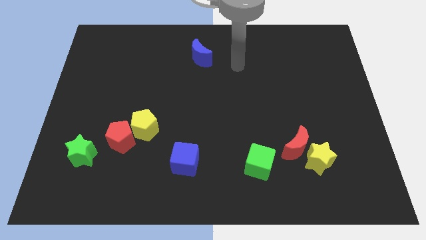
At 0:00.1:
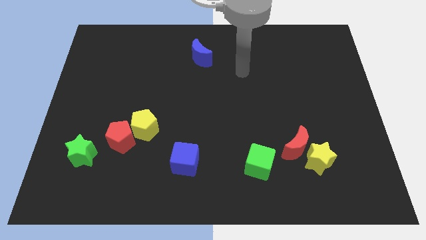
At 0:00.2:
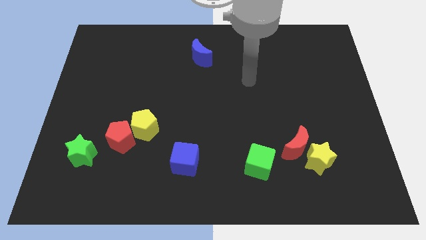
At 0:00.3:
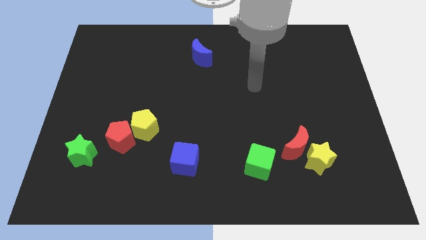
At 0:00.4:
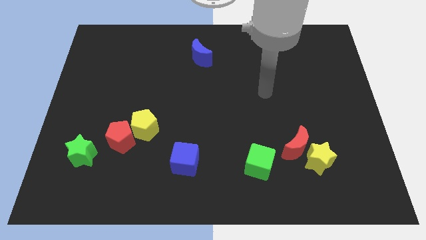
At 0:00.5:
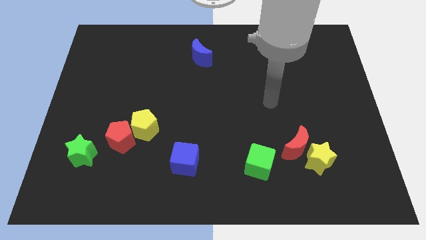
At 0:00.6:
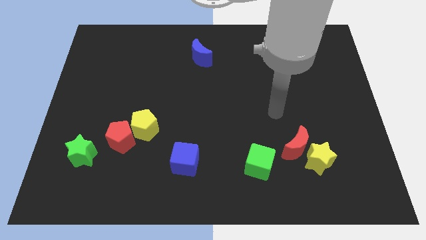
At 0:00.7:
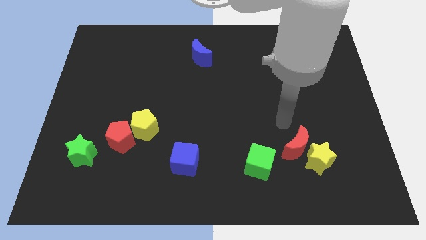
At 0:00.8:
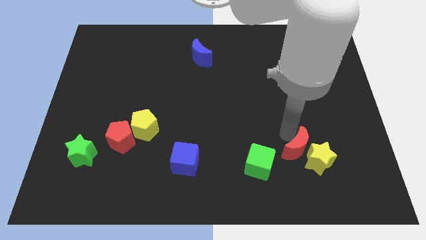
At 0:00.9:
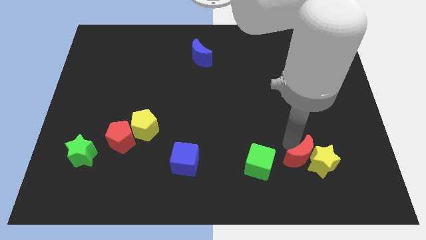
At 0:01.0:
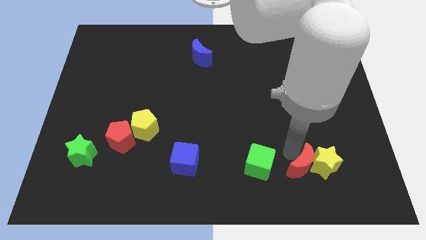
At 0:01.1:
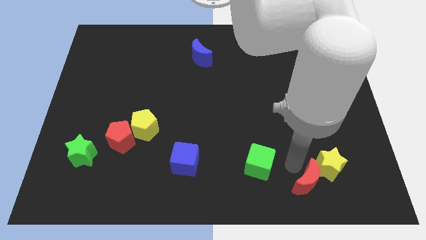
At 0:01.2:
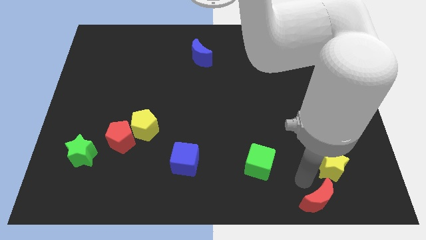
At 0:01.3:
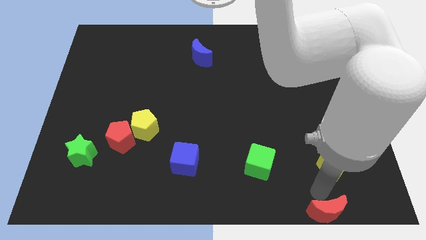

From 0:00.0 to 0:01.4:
separate the yellow star from the red moon

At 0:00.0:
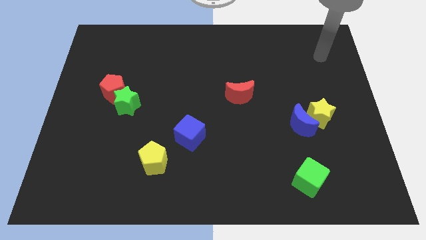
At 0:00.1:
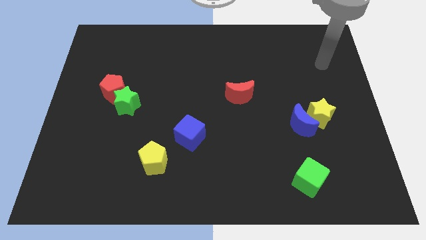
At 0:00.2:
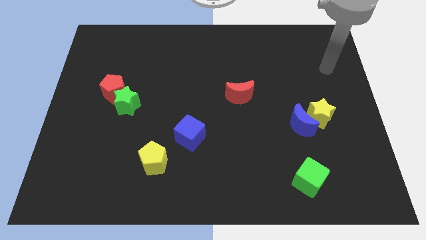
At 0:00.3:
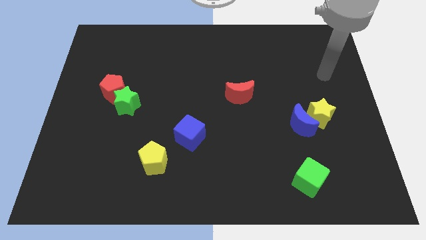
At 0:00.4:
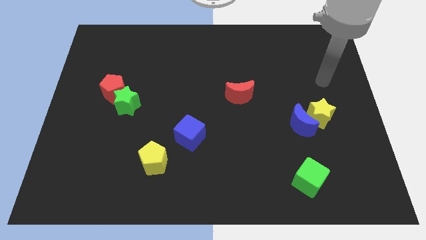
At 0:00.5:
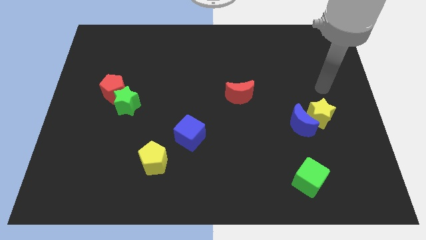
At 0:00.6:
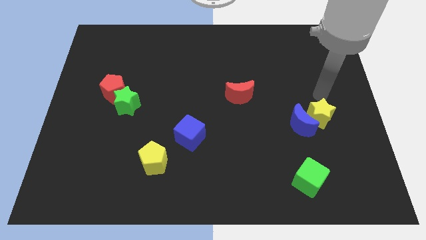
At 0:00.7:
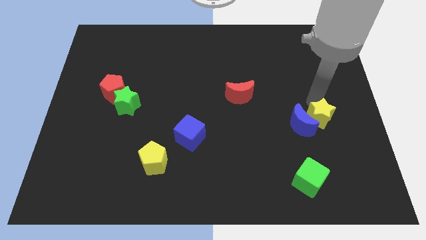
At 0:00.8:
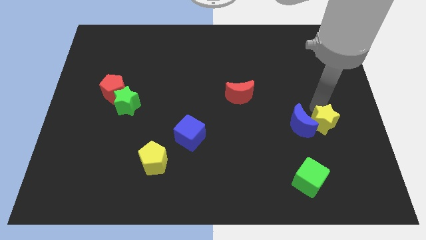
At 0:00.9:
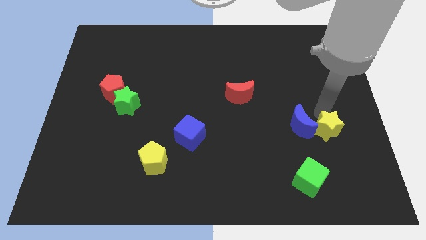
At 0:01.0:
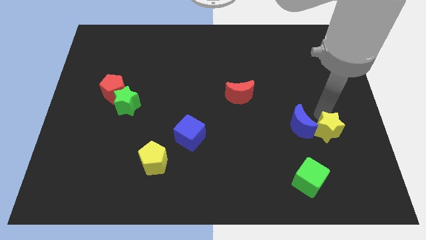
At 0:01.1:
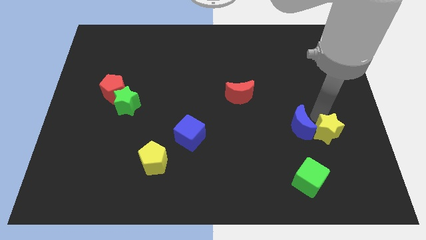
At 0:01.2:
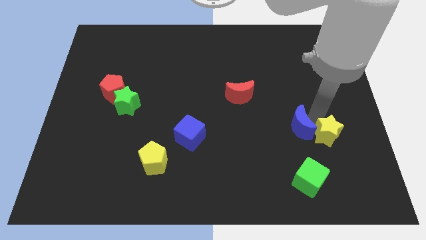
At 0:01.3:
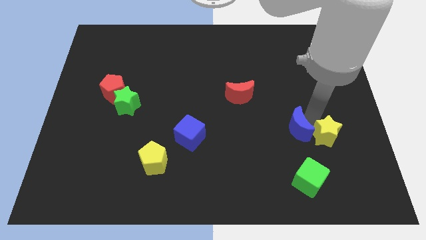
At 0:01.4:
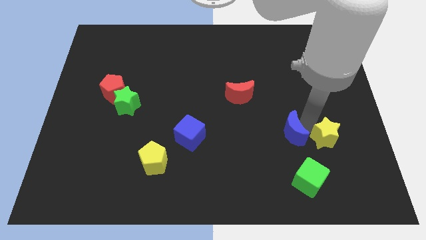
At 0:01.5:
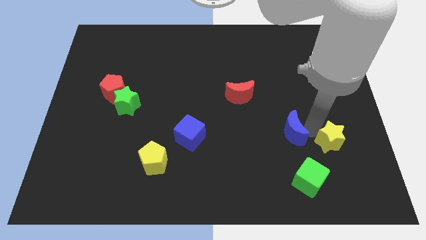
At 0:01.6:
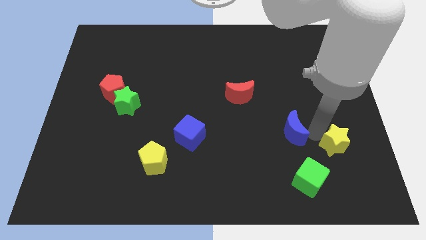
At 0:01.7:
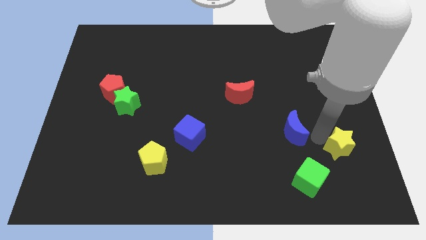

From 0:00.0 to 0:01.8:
separate the blue moon from the yellow star

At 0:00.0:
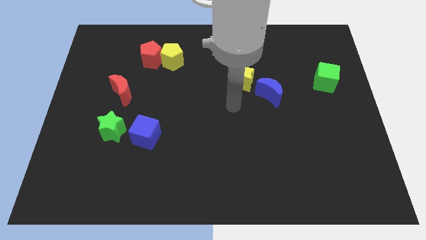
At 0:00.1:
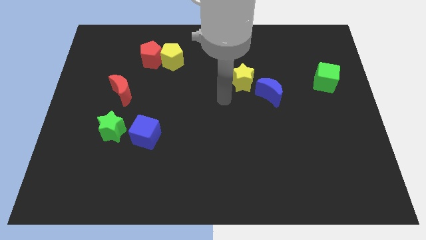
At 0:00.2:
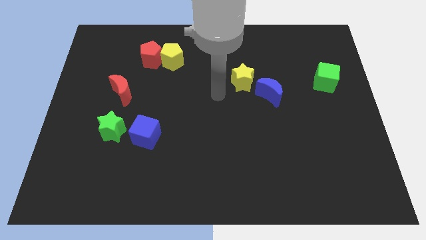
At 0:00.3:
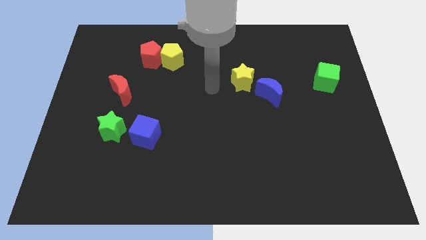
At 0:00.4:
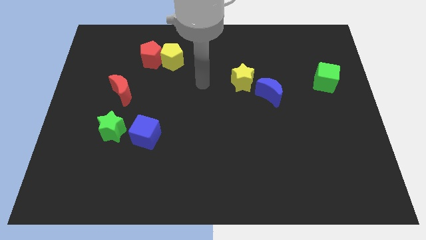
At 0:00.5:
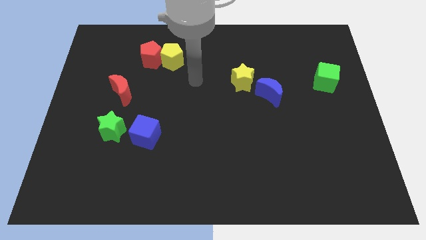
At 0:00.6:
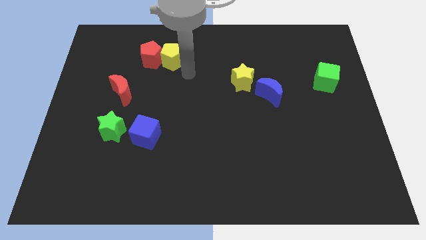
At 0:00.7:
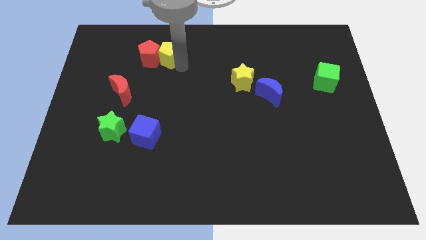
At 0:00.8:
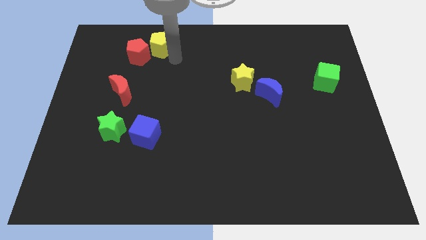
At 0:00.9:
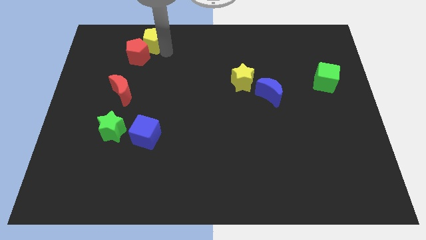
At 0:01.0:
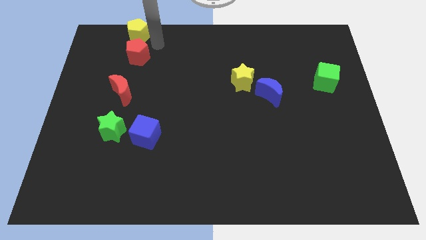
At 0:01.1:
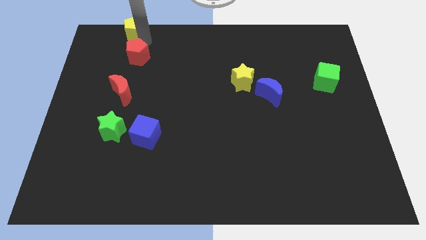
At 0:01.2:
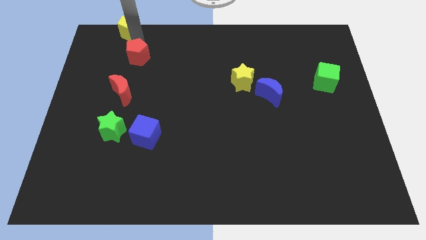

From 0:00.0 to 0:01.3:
separate the red pentagon from the yellow pentagon

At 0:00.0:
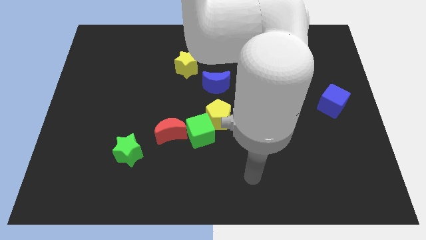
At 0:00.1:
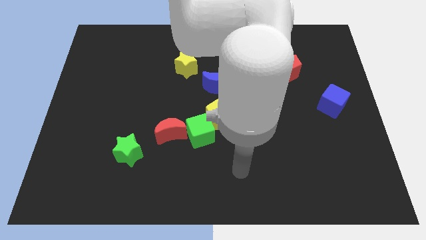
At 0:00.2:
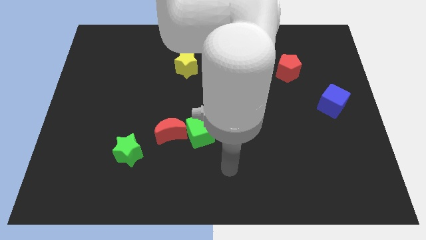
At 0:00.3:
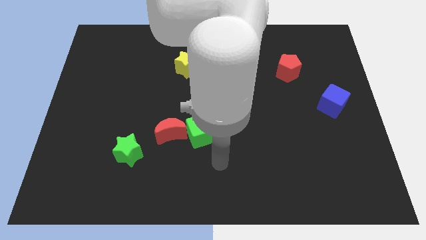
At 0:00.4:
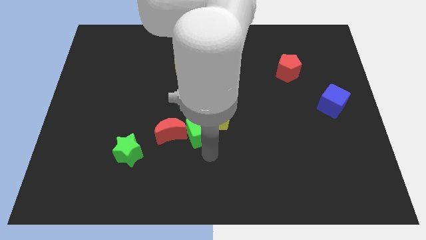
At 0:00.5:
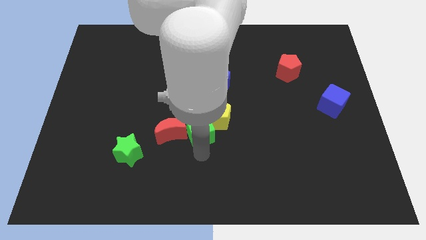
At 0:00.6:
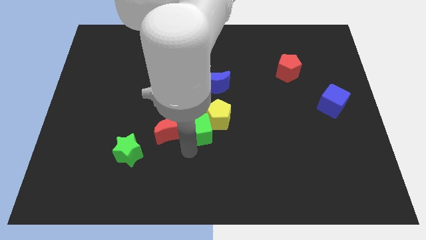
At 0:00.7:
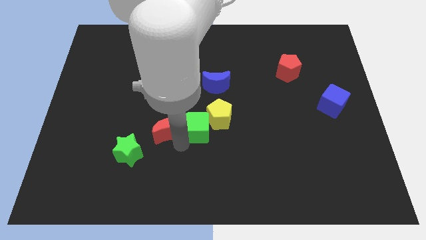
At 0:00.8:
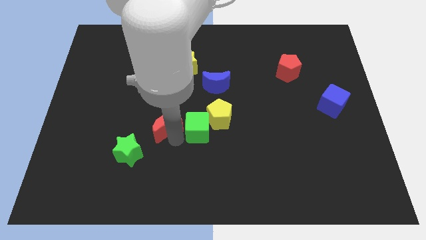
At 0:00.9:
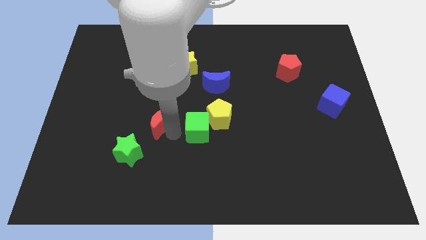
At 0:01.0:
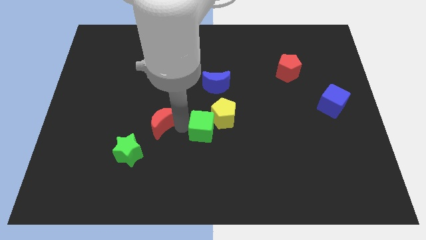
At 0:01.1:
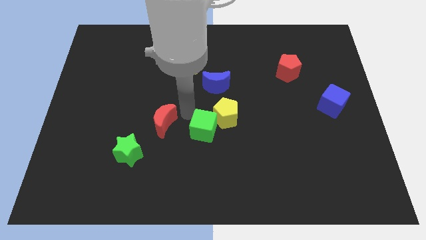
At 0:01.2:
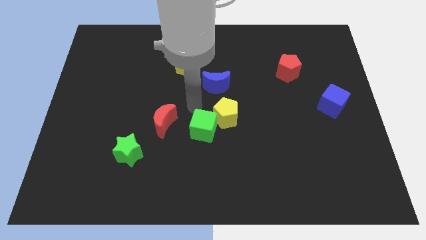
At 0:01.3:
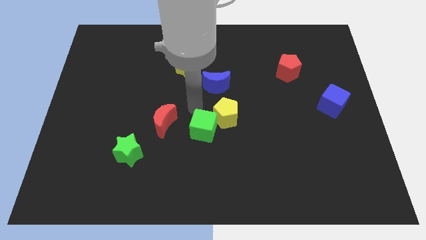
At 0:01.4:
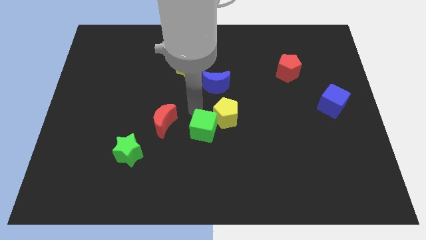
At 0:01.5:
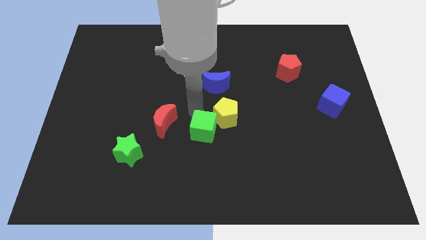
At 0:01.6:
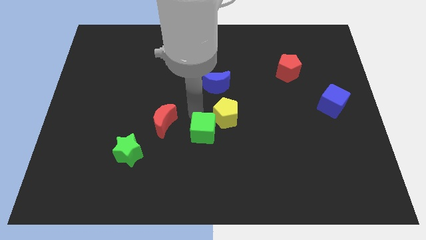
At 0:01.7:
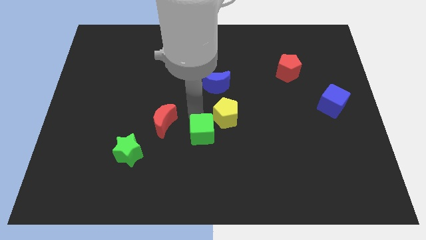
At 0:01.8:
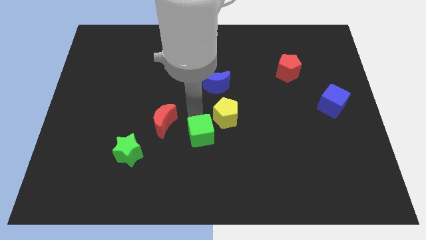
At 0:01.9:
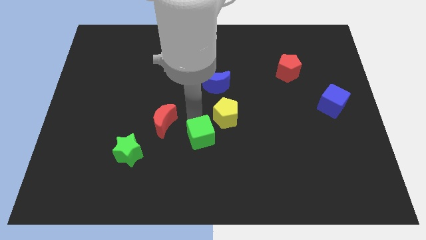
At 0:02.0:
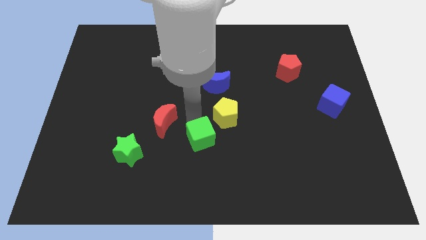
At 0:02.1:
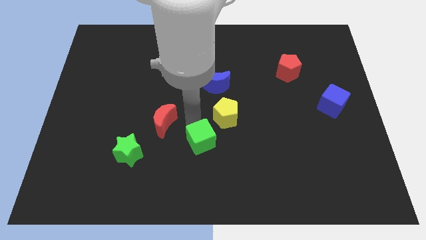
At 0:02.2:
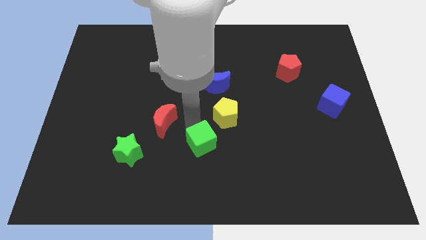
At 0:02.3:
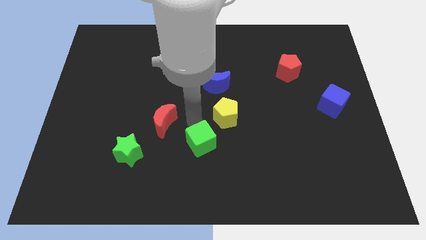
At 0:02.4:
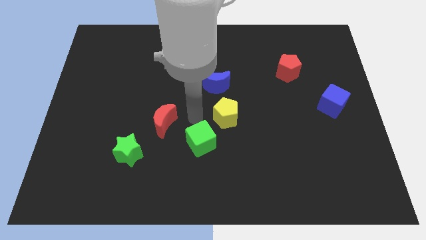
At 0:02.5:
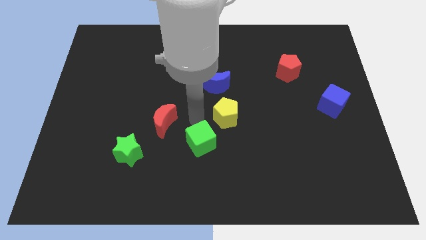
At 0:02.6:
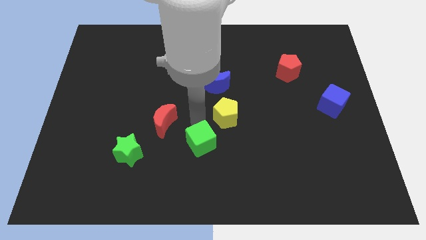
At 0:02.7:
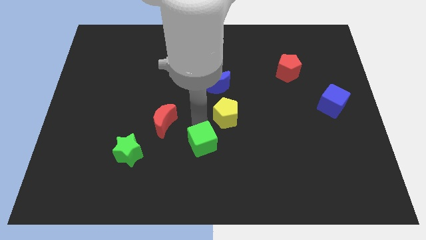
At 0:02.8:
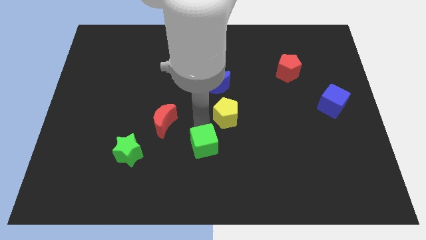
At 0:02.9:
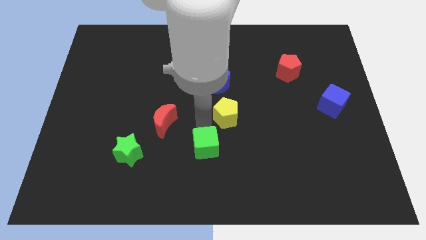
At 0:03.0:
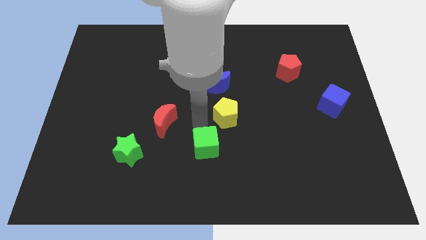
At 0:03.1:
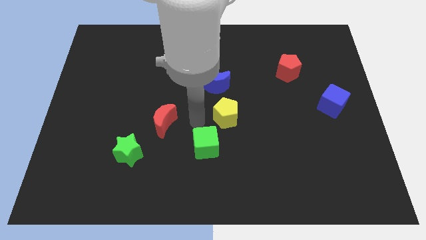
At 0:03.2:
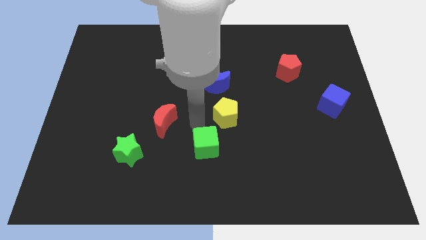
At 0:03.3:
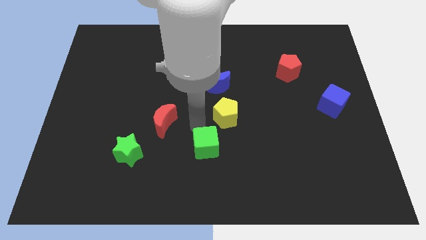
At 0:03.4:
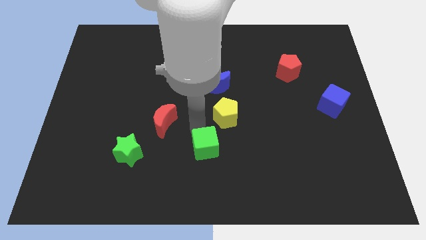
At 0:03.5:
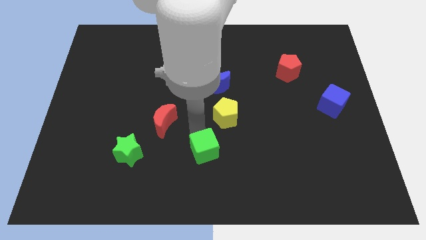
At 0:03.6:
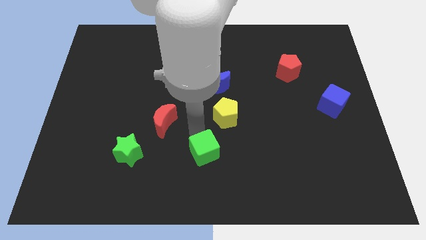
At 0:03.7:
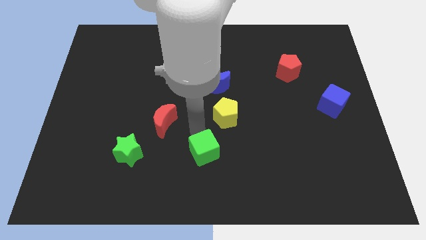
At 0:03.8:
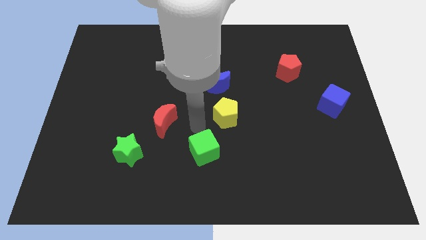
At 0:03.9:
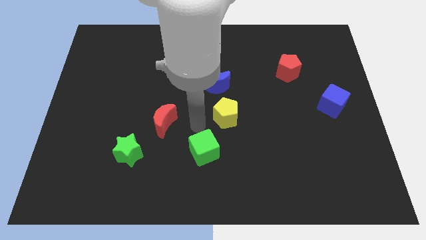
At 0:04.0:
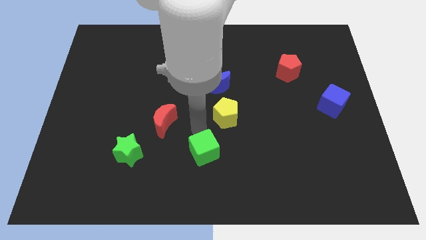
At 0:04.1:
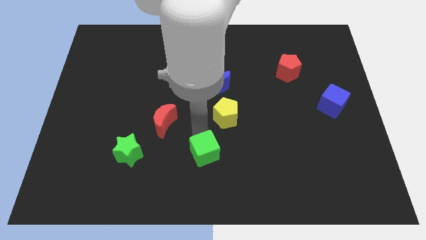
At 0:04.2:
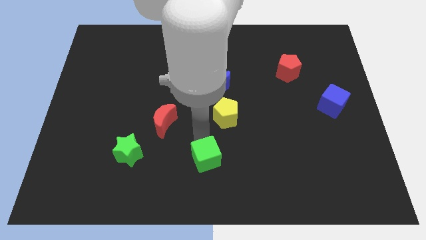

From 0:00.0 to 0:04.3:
move the green cube away from the yellow pentagon and red moon

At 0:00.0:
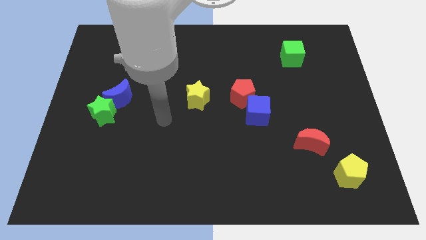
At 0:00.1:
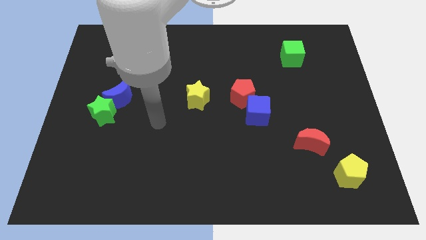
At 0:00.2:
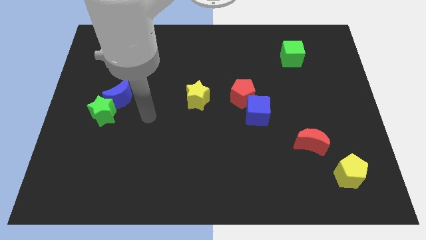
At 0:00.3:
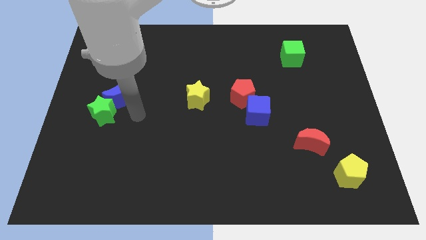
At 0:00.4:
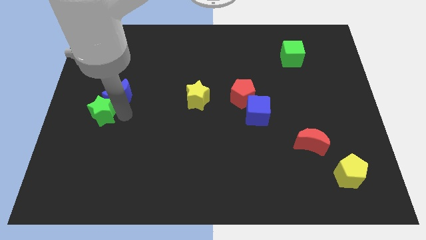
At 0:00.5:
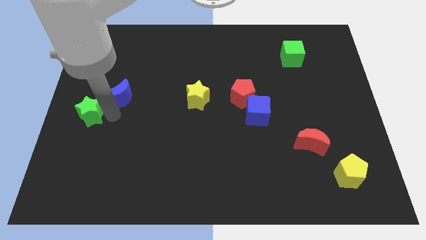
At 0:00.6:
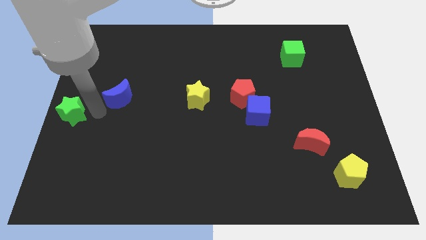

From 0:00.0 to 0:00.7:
pull the blue moon apart from the green star
